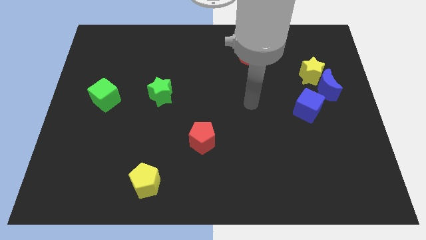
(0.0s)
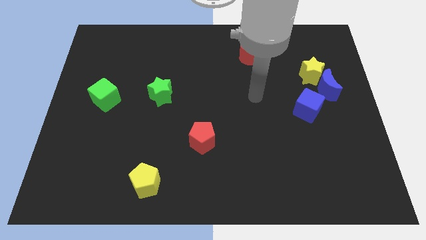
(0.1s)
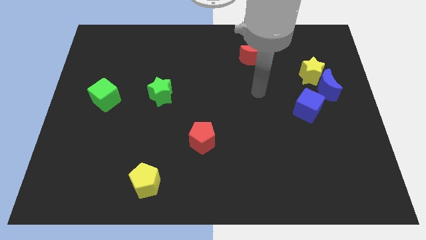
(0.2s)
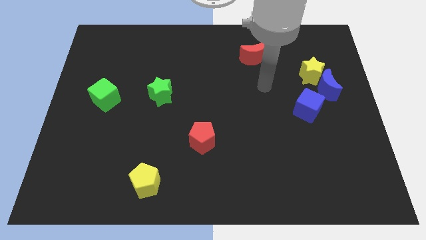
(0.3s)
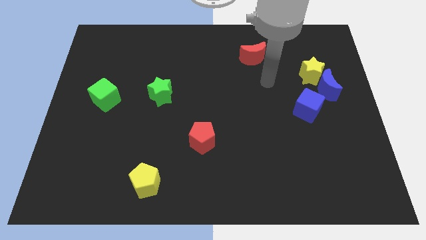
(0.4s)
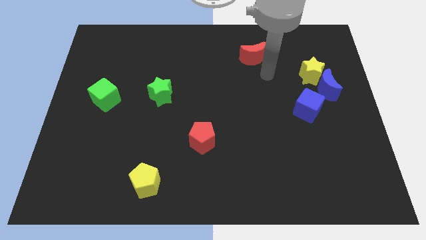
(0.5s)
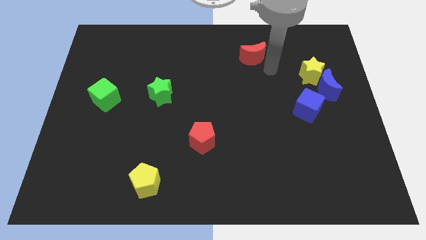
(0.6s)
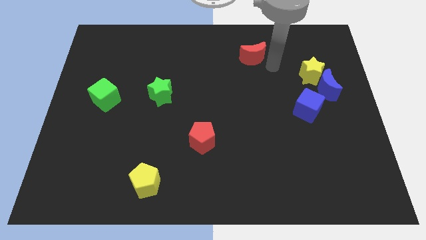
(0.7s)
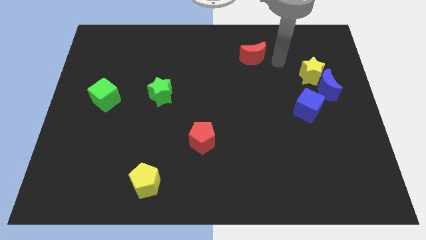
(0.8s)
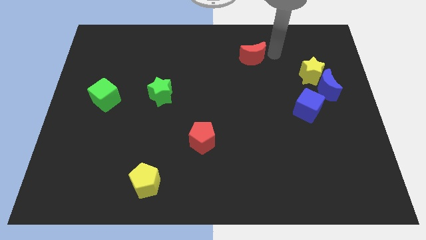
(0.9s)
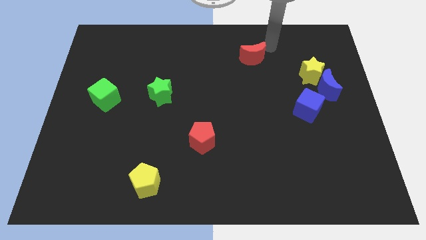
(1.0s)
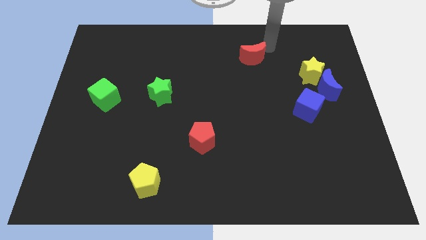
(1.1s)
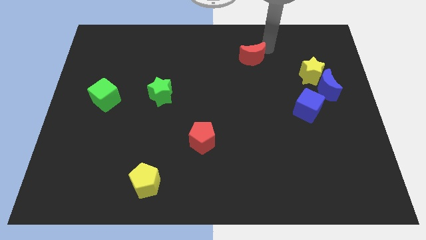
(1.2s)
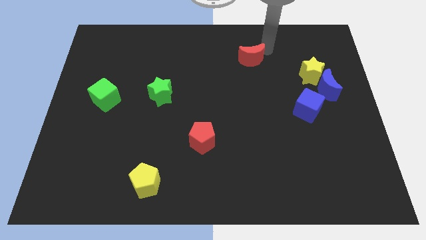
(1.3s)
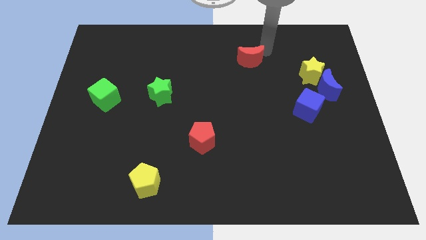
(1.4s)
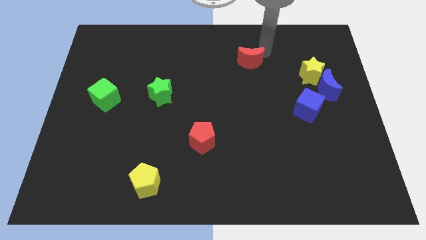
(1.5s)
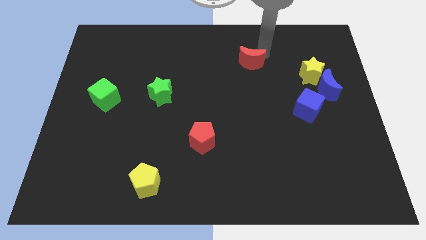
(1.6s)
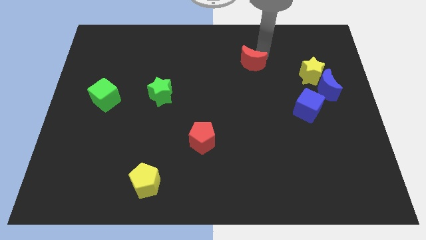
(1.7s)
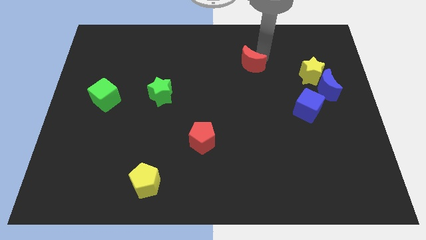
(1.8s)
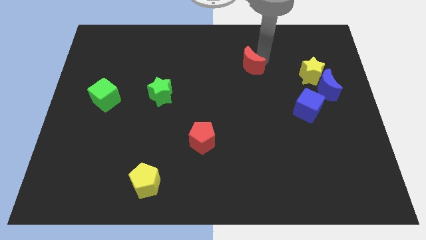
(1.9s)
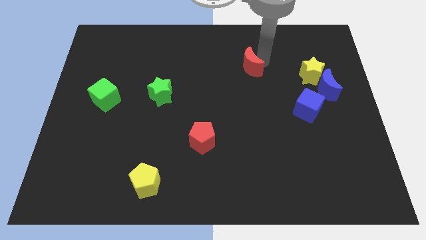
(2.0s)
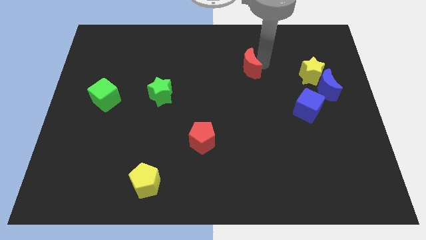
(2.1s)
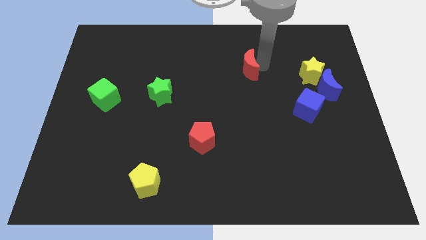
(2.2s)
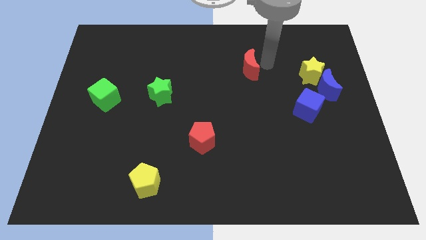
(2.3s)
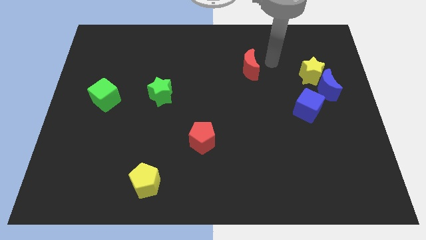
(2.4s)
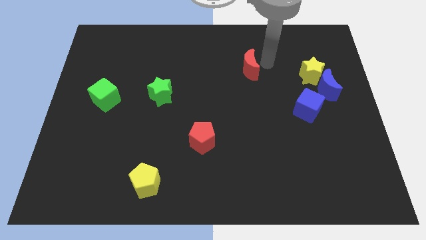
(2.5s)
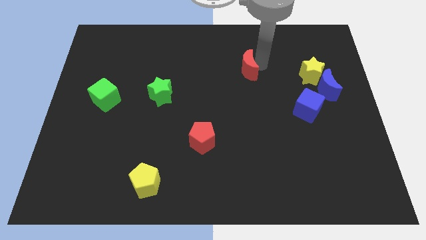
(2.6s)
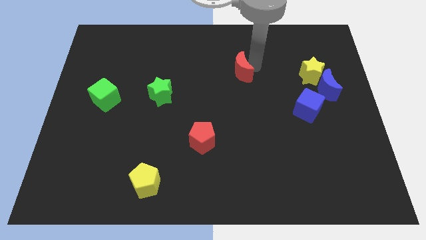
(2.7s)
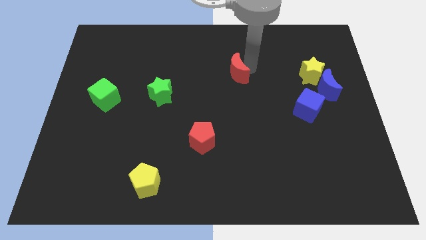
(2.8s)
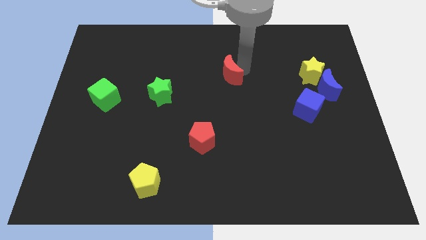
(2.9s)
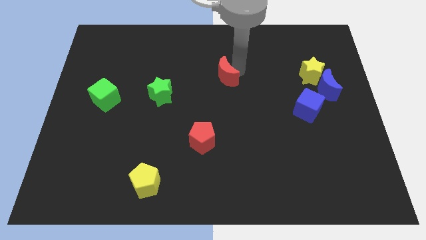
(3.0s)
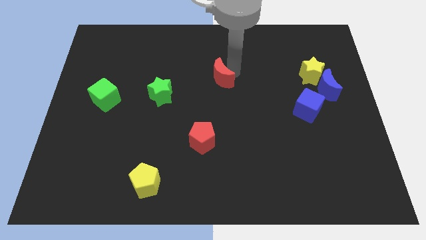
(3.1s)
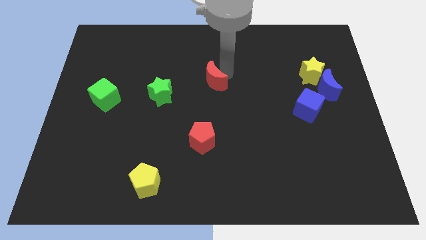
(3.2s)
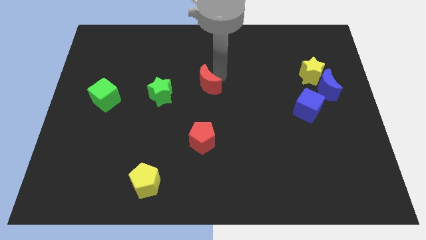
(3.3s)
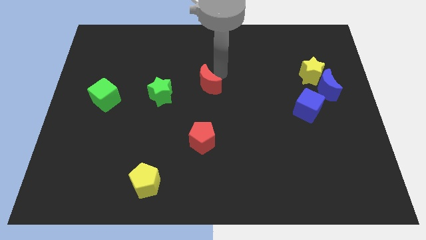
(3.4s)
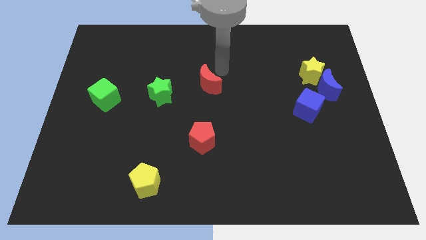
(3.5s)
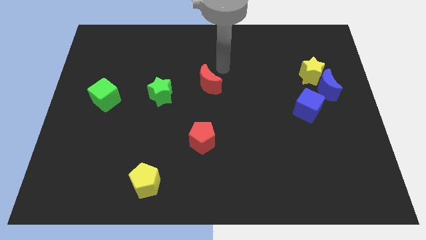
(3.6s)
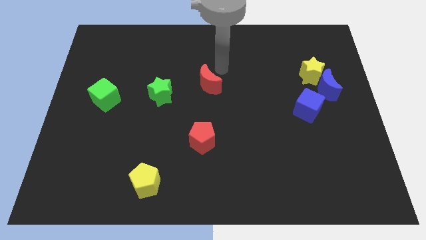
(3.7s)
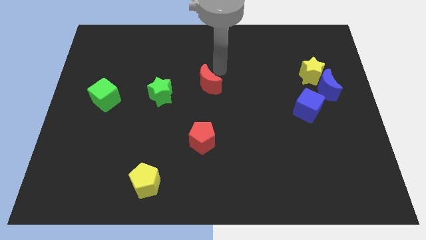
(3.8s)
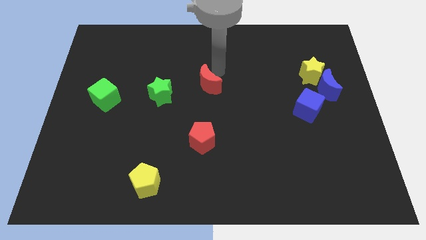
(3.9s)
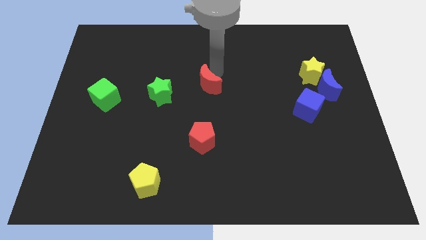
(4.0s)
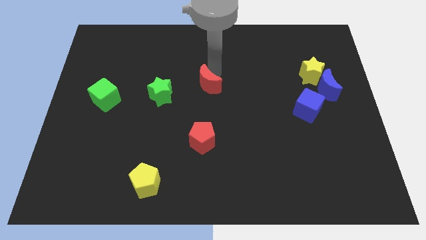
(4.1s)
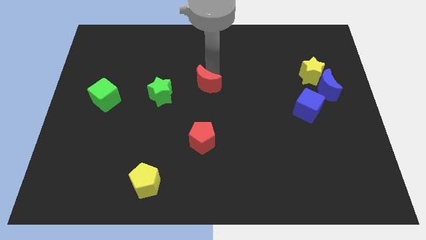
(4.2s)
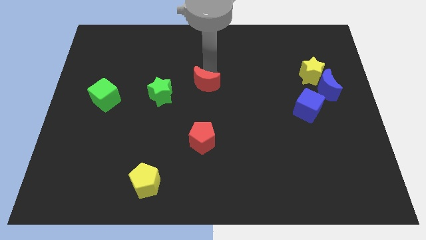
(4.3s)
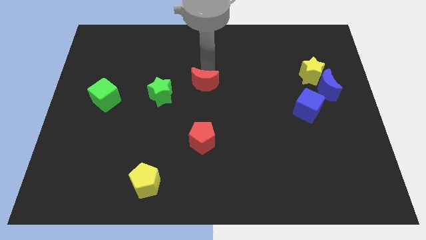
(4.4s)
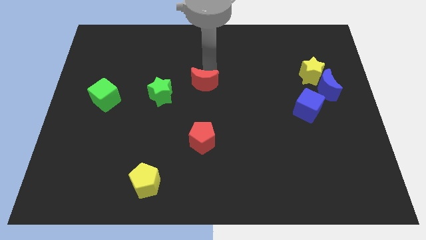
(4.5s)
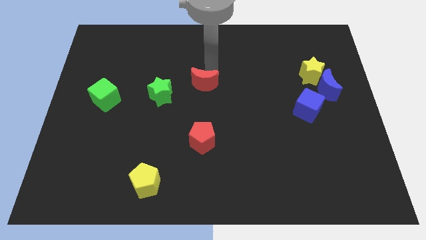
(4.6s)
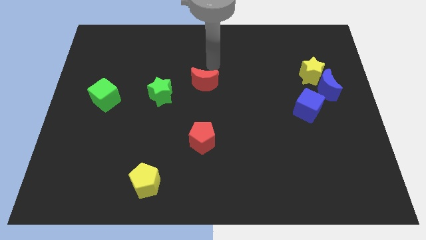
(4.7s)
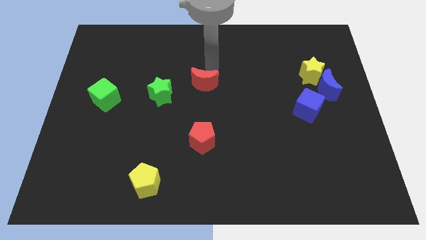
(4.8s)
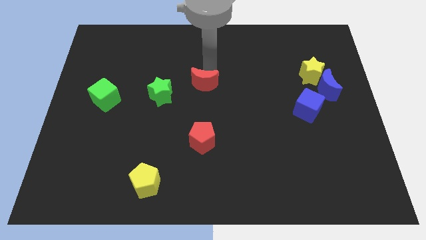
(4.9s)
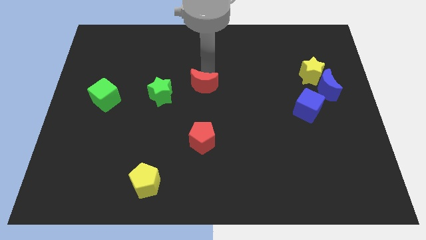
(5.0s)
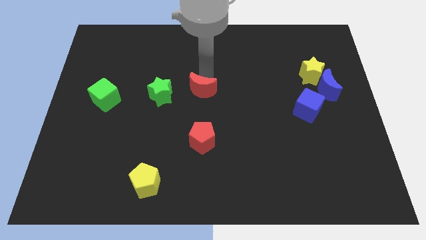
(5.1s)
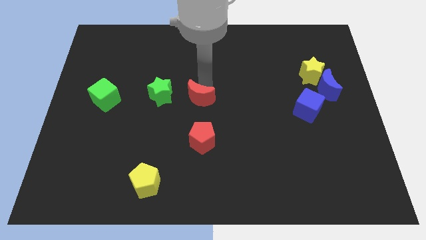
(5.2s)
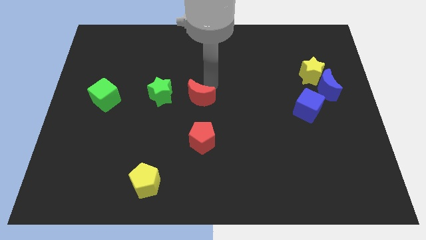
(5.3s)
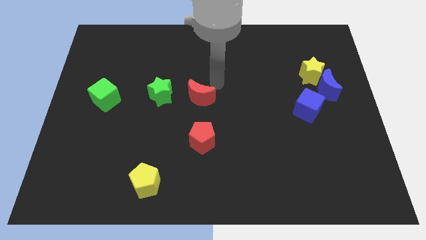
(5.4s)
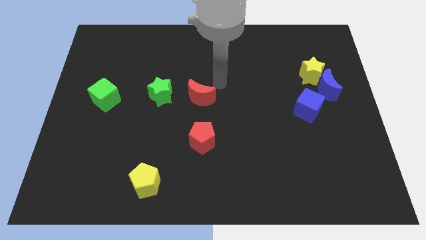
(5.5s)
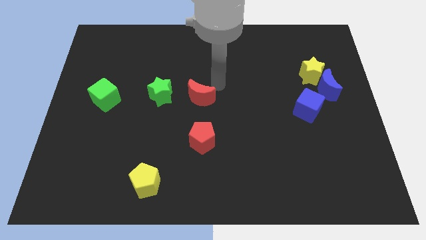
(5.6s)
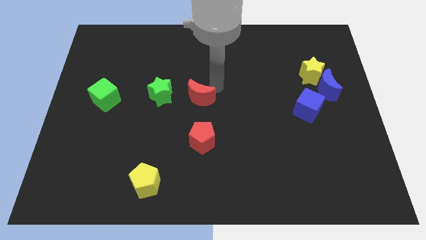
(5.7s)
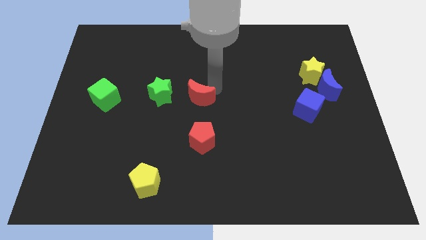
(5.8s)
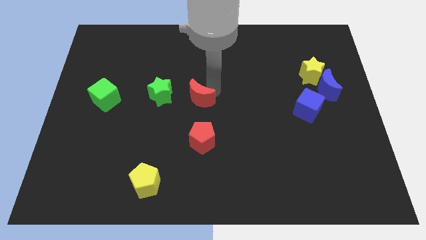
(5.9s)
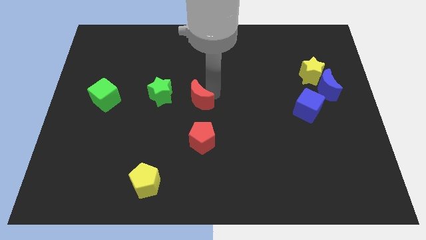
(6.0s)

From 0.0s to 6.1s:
slide the red moon down and to the left diagonally

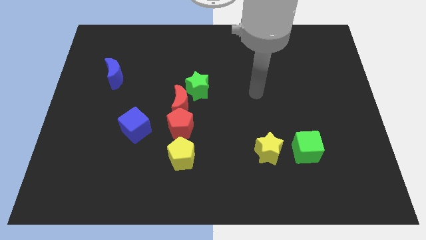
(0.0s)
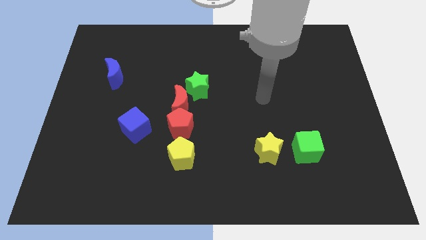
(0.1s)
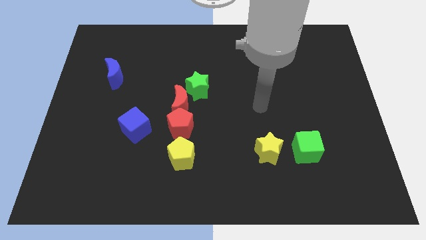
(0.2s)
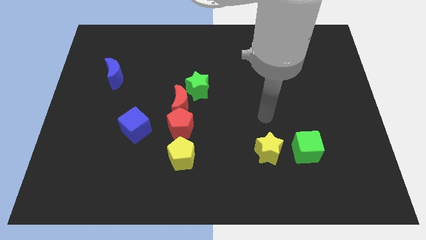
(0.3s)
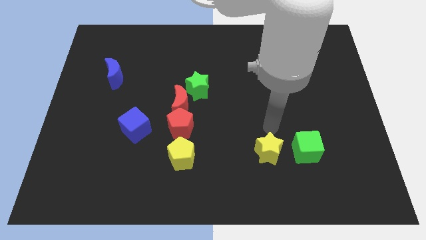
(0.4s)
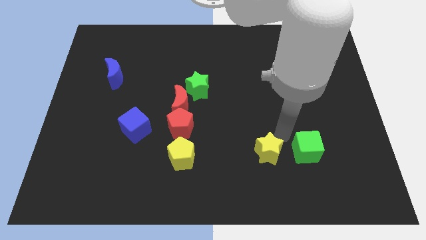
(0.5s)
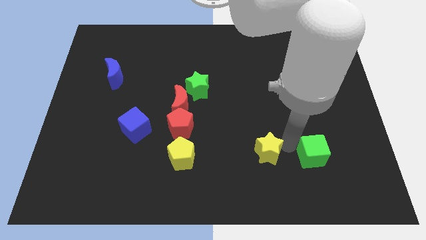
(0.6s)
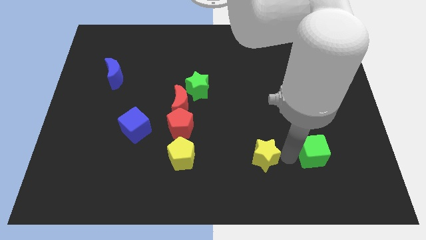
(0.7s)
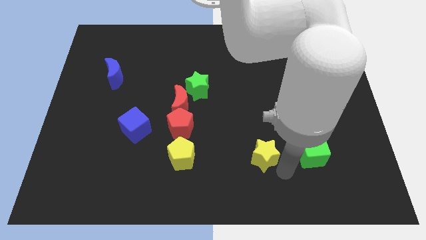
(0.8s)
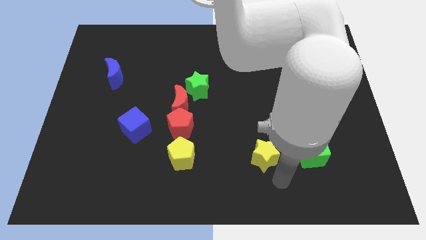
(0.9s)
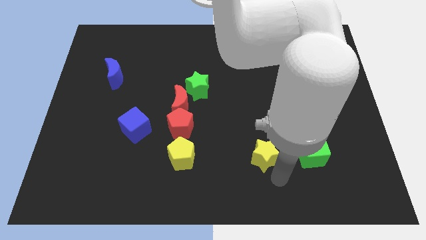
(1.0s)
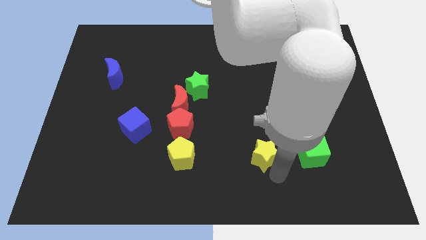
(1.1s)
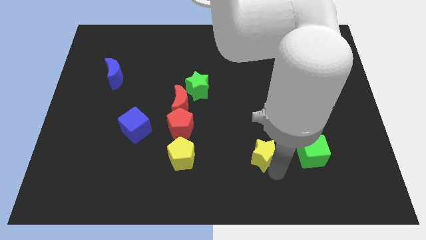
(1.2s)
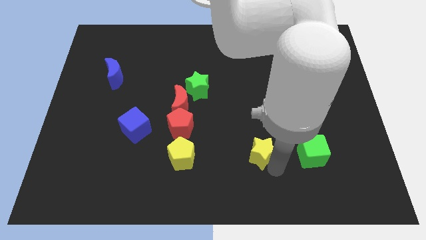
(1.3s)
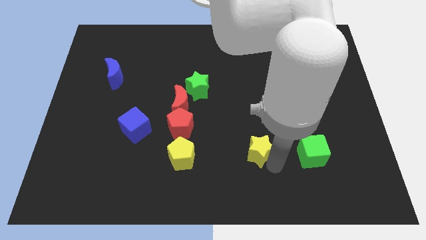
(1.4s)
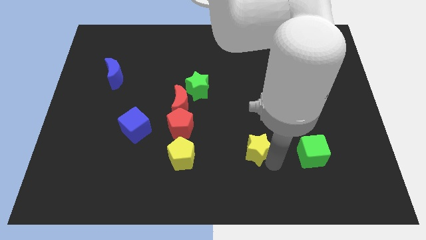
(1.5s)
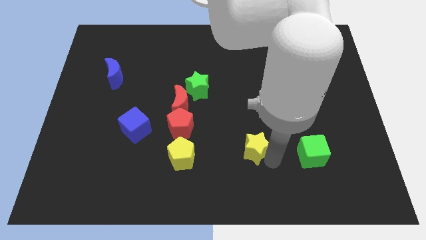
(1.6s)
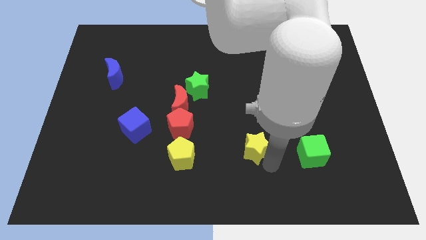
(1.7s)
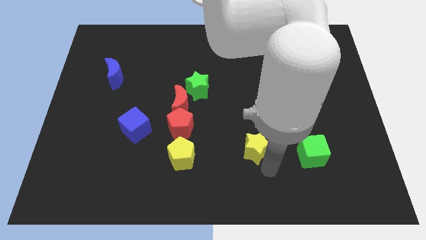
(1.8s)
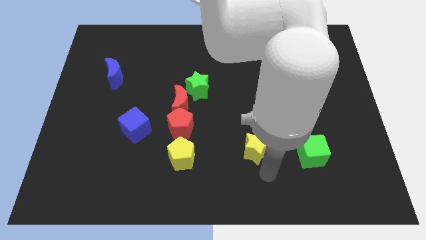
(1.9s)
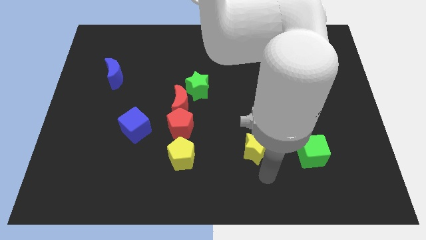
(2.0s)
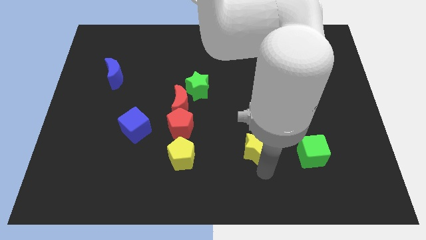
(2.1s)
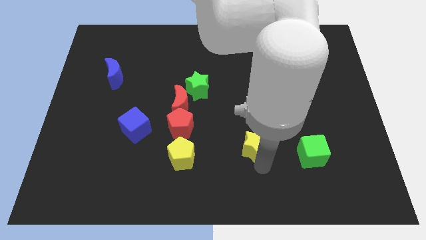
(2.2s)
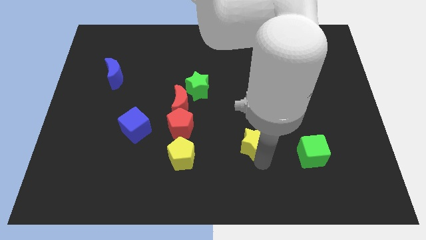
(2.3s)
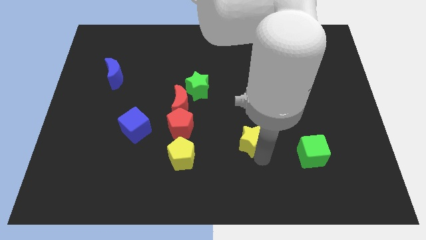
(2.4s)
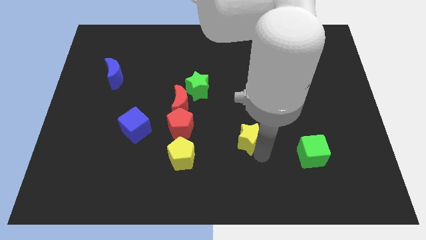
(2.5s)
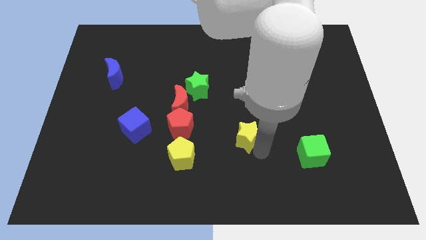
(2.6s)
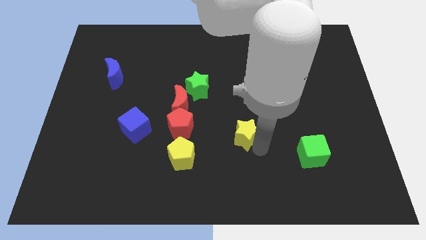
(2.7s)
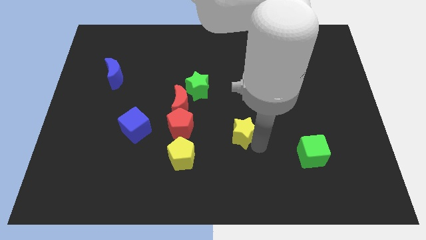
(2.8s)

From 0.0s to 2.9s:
slide the yellow star upwards and left diagonally a little
